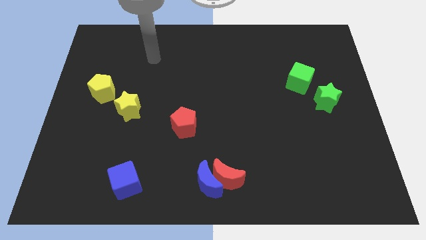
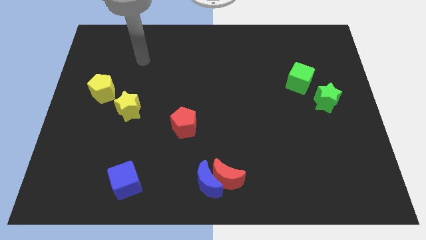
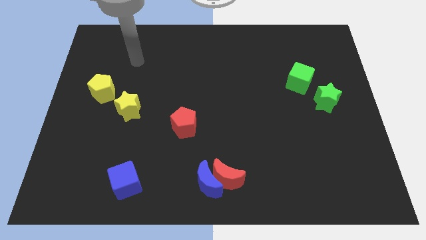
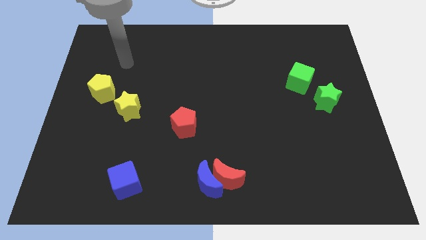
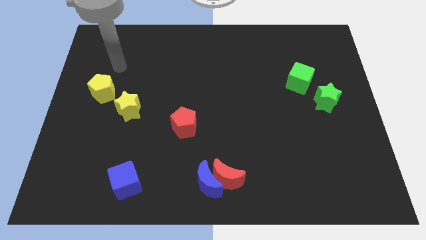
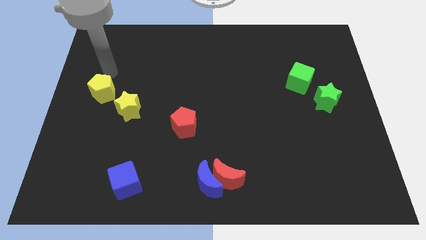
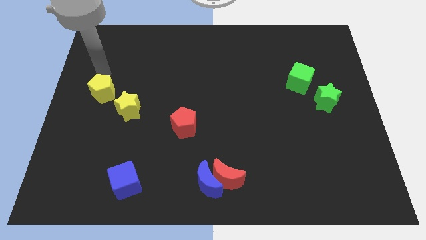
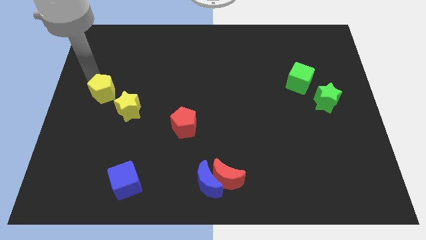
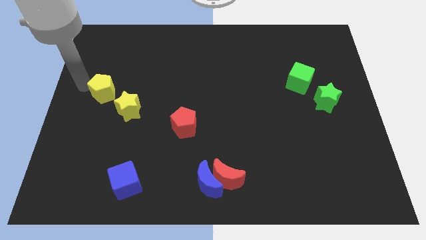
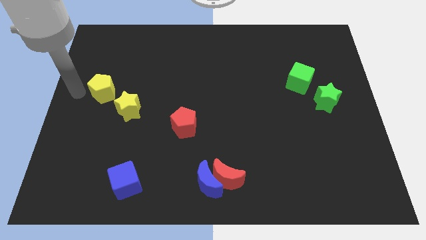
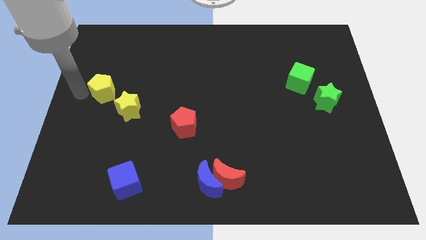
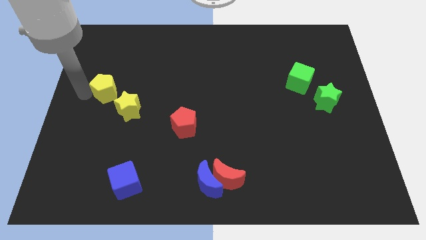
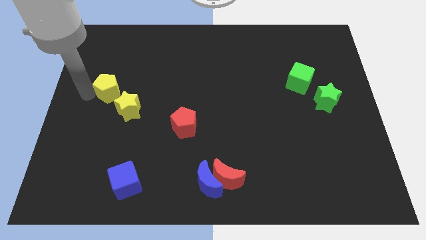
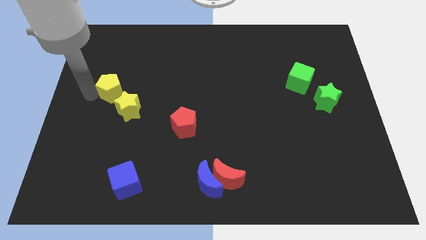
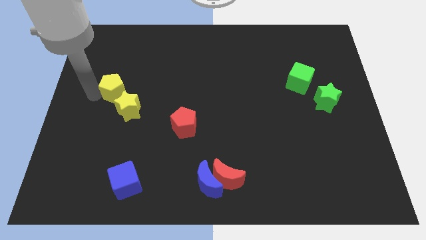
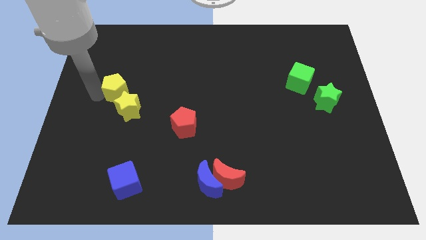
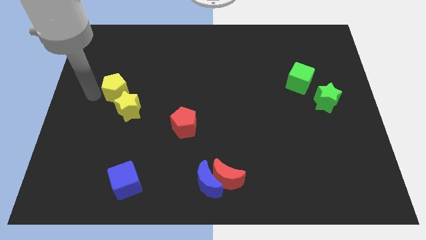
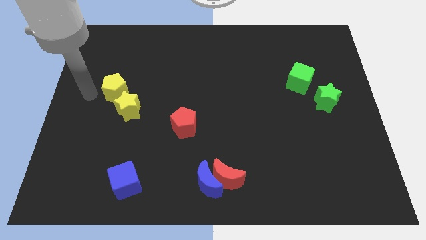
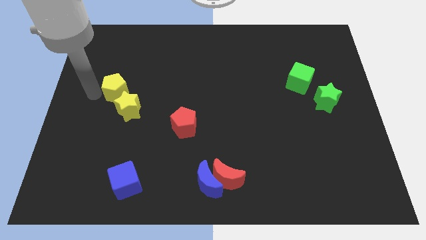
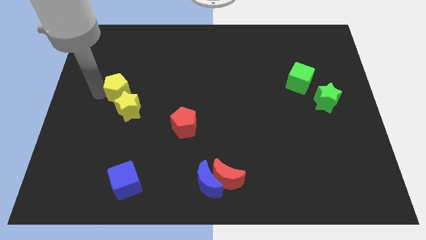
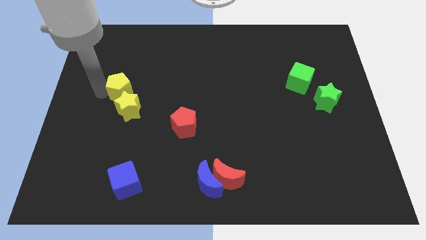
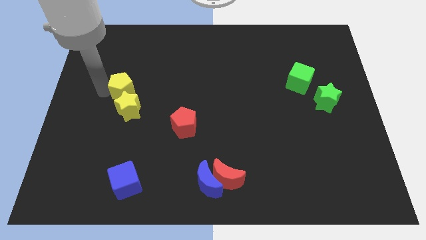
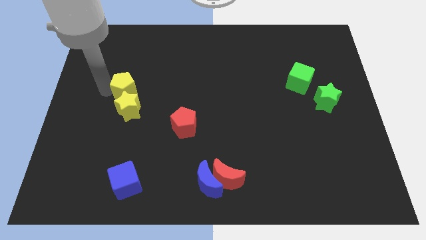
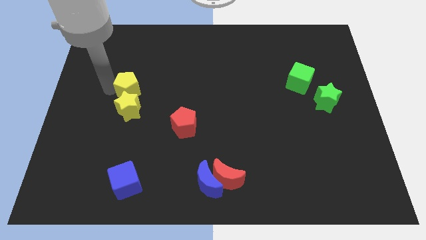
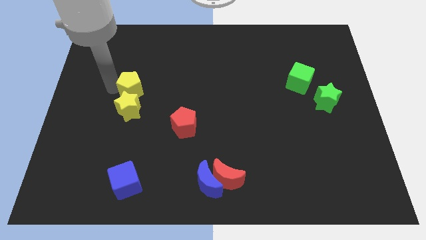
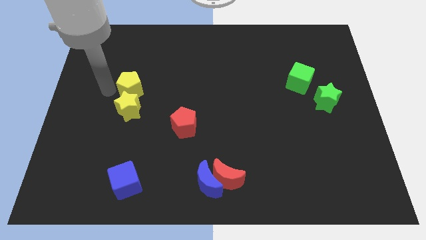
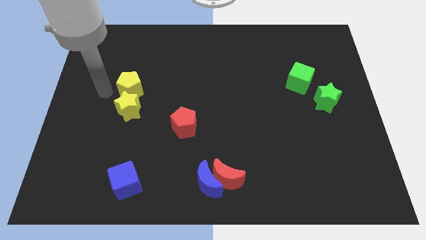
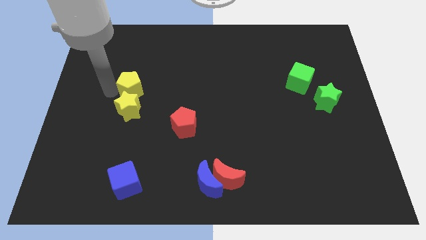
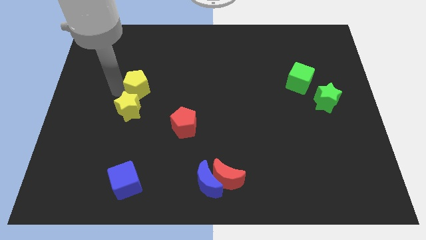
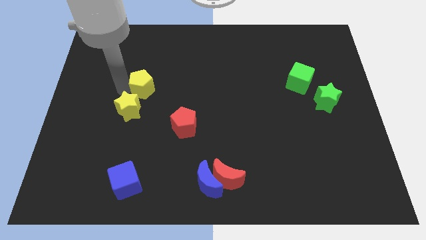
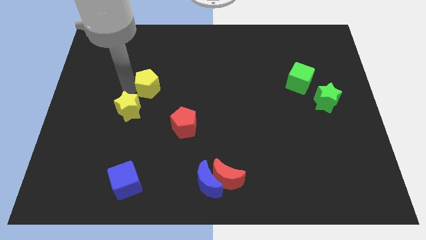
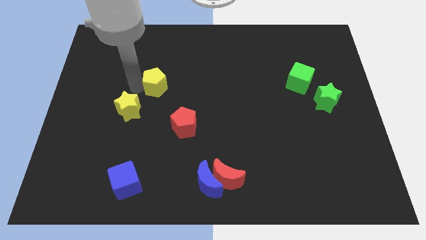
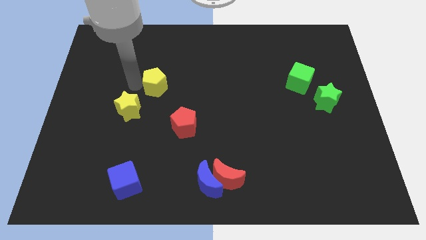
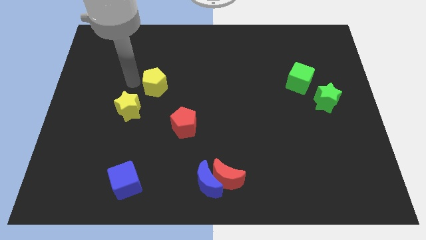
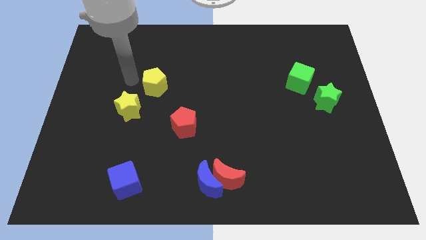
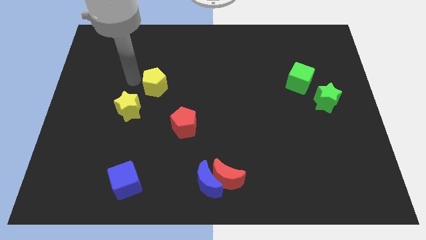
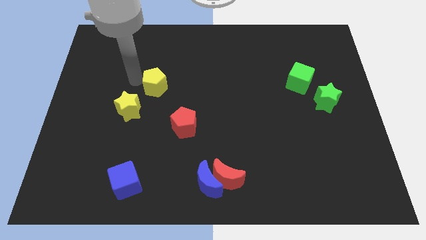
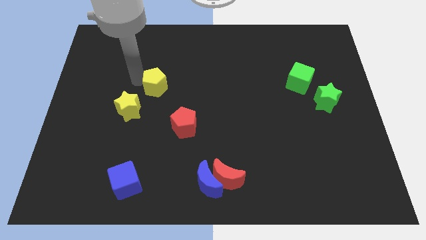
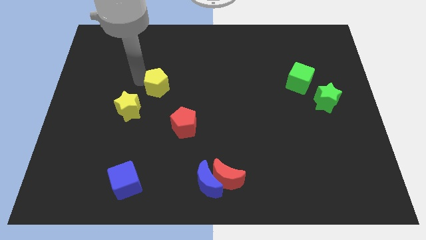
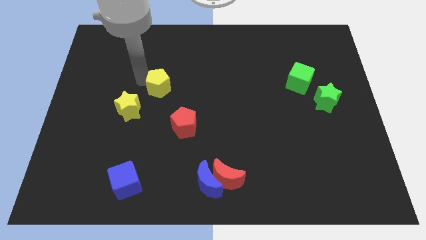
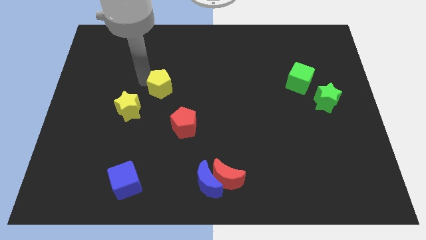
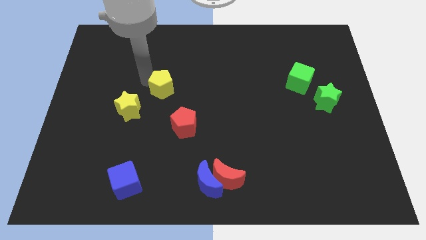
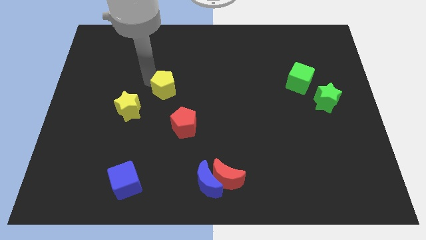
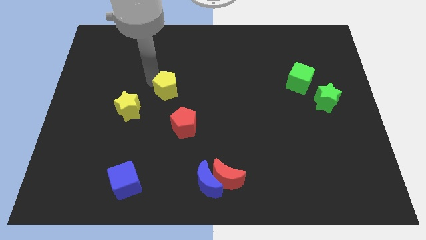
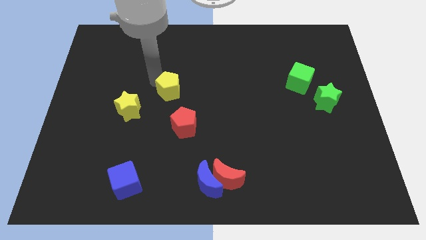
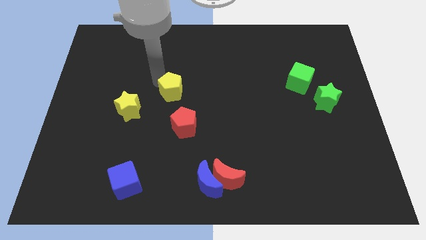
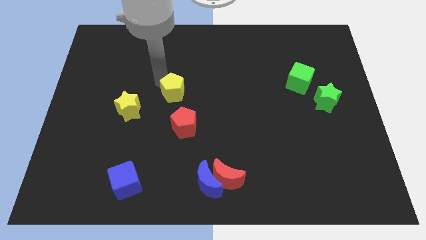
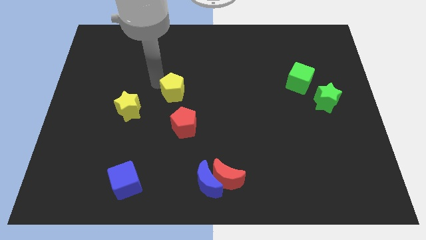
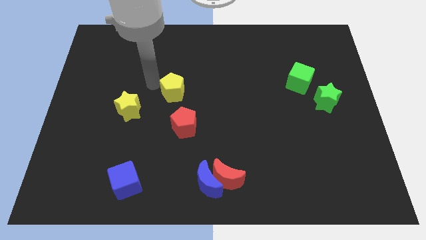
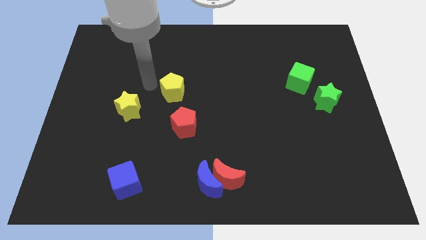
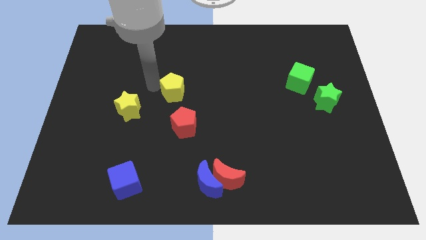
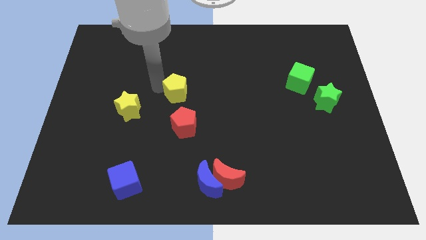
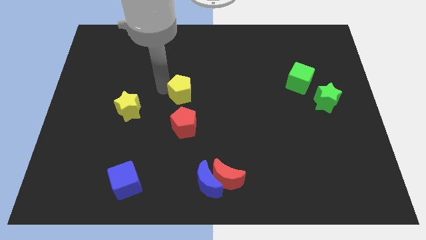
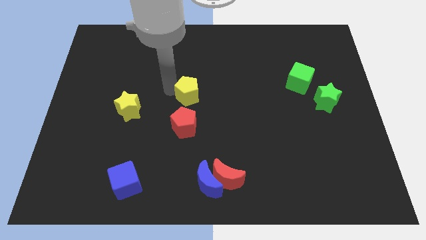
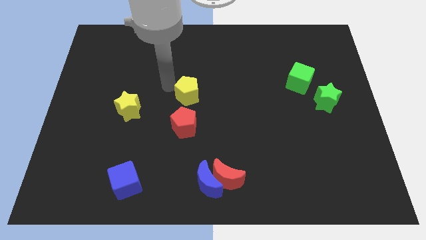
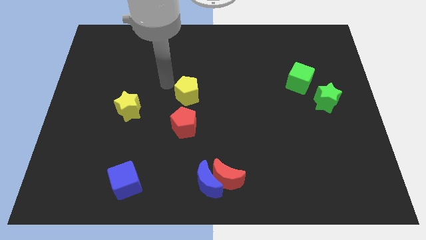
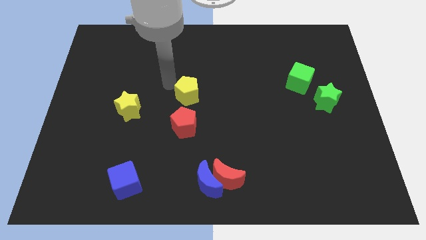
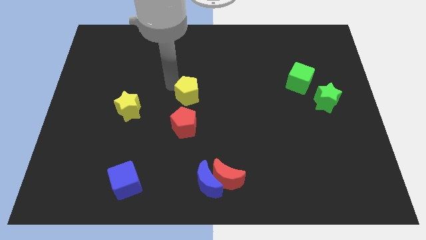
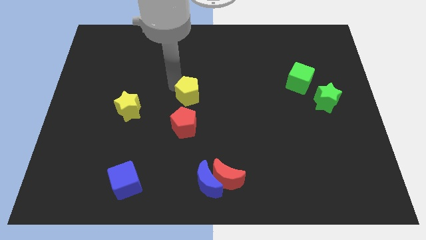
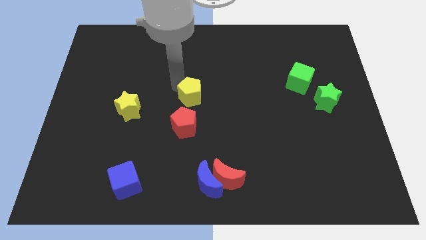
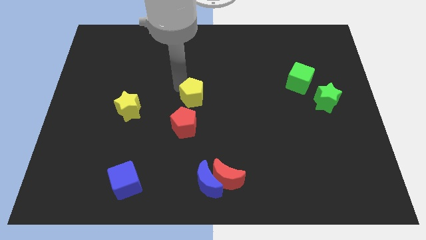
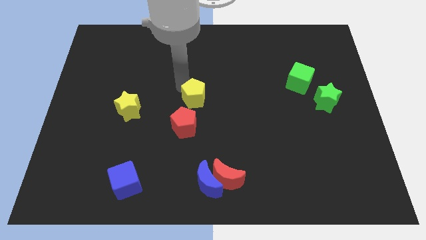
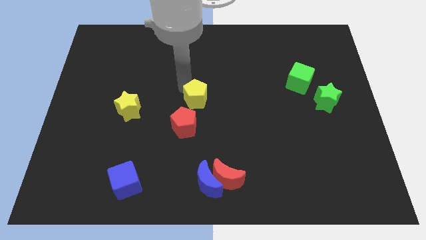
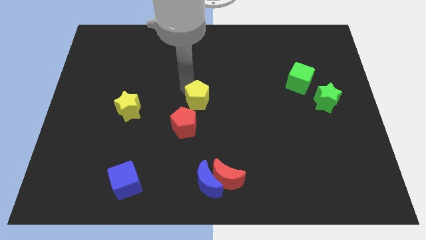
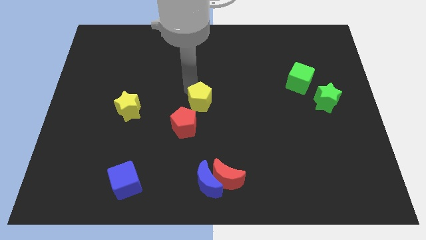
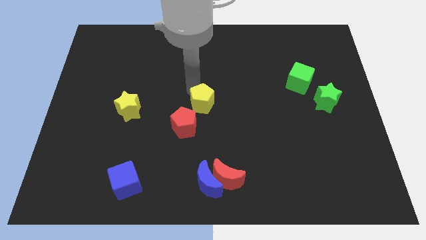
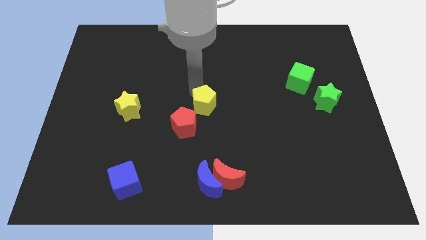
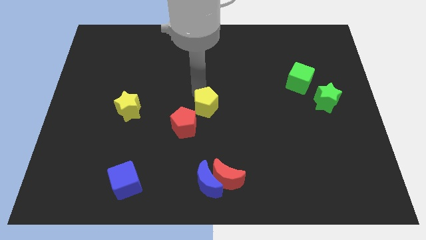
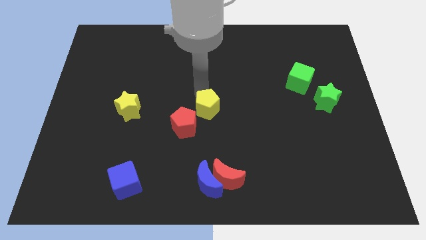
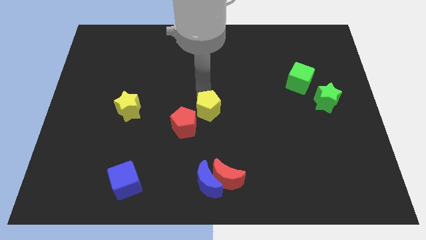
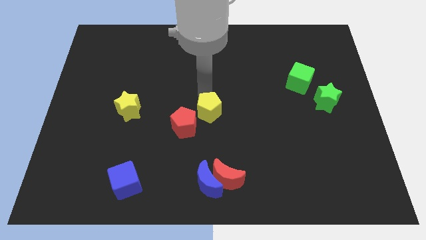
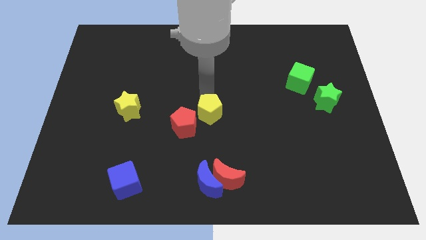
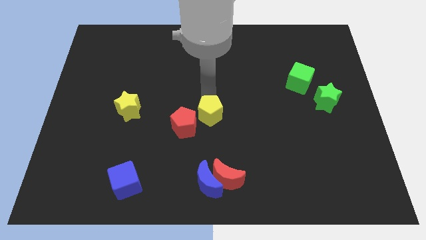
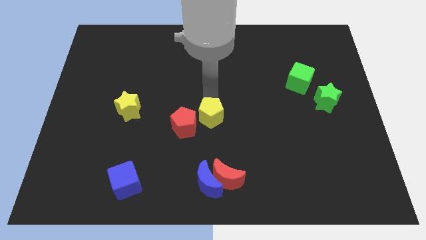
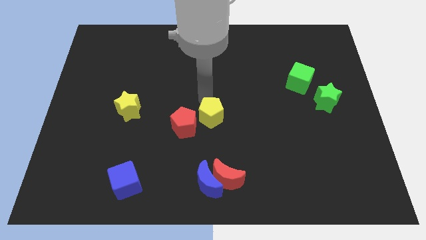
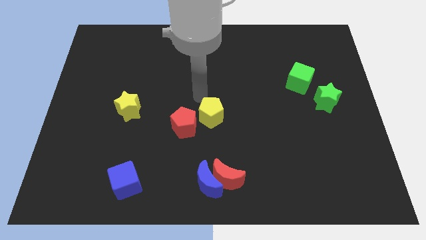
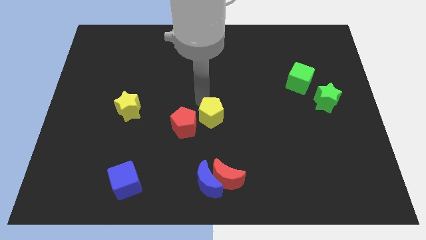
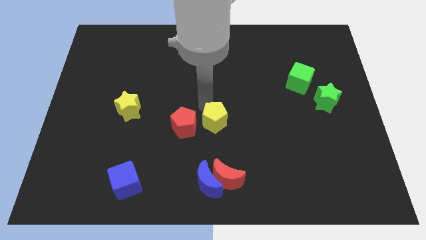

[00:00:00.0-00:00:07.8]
slide the yellow pentagon to the top side of the red moon
